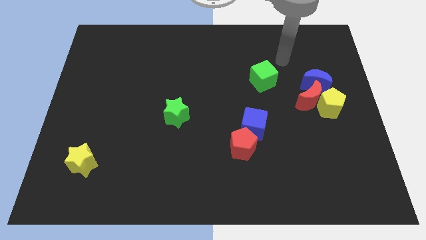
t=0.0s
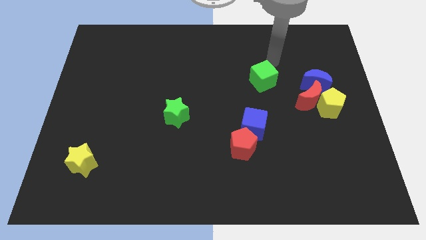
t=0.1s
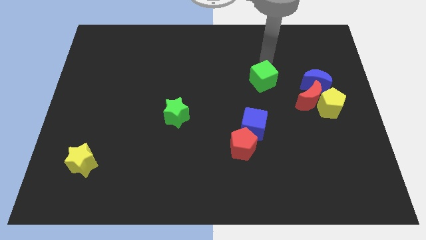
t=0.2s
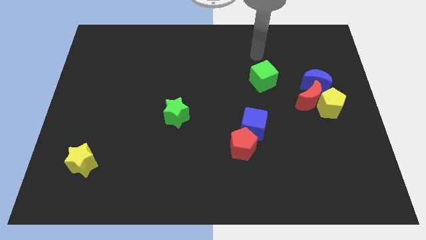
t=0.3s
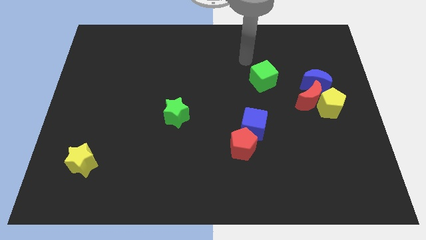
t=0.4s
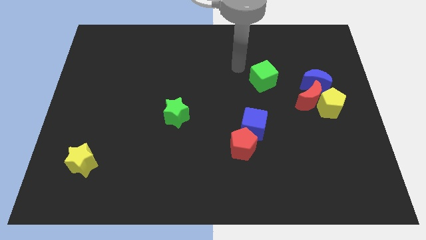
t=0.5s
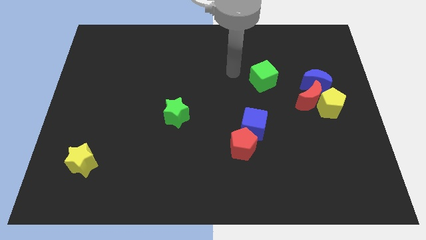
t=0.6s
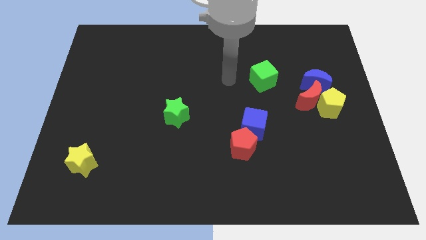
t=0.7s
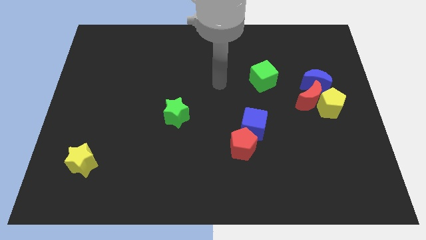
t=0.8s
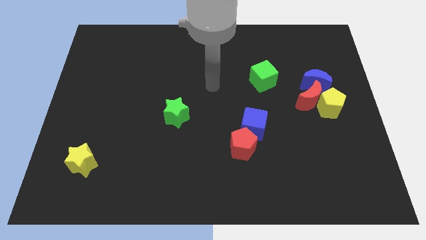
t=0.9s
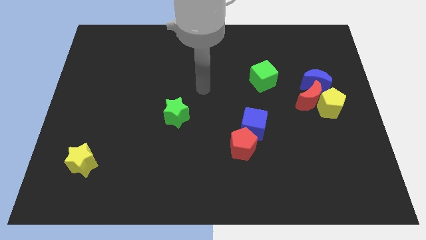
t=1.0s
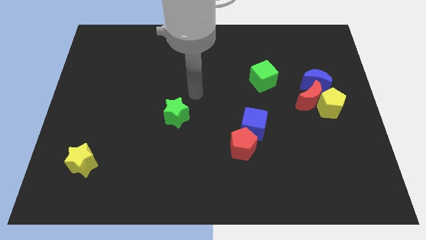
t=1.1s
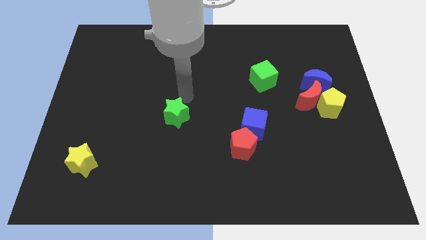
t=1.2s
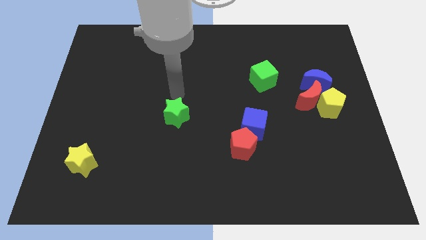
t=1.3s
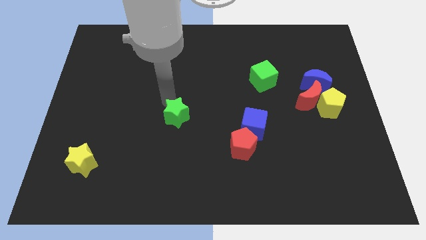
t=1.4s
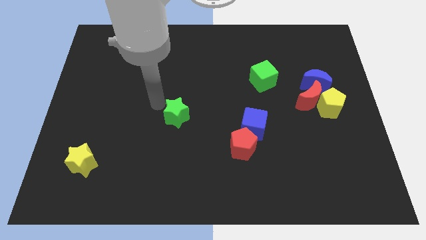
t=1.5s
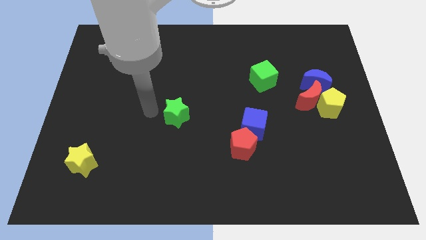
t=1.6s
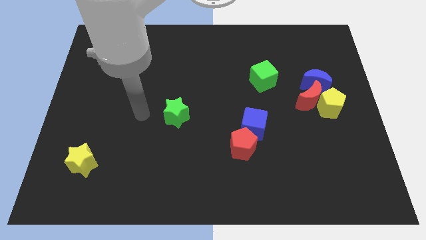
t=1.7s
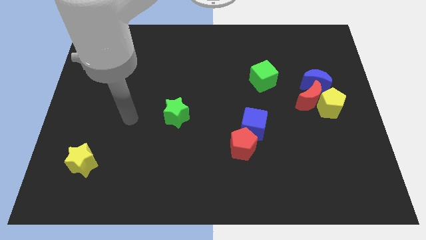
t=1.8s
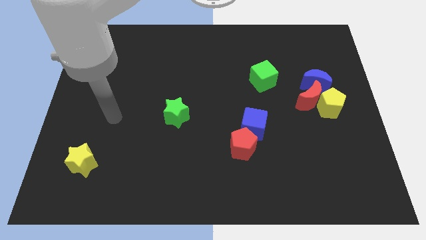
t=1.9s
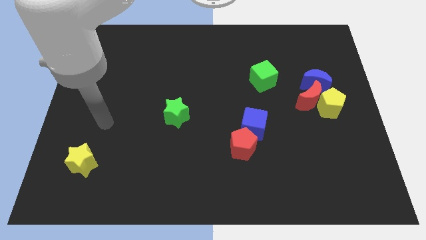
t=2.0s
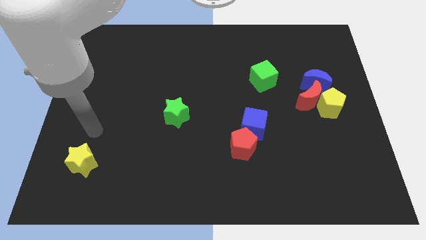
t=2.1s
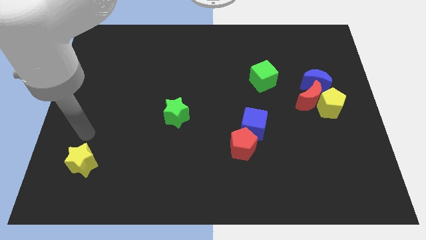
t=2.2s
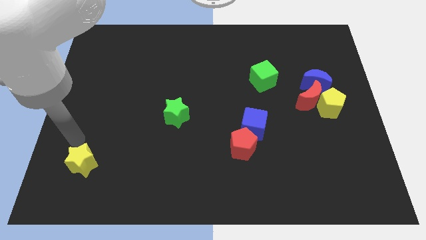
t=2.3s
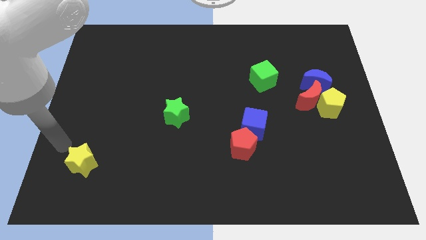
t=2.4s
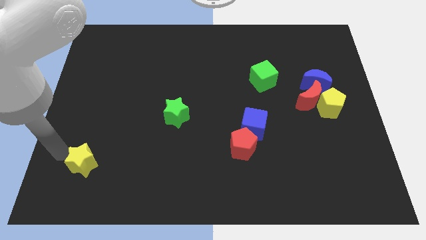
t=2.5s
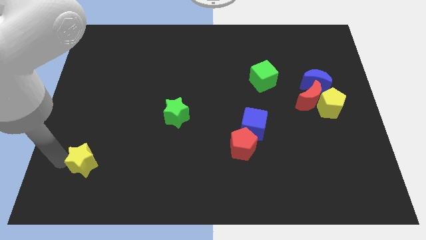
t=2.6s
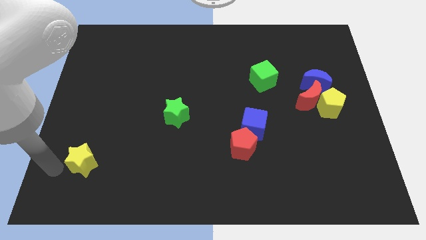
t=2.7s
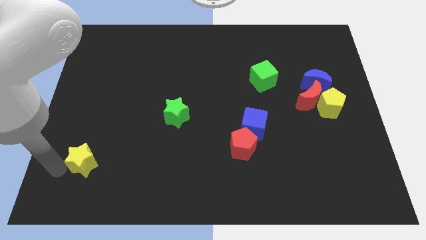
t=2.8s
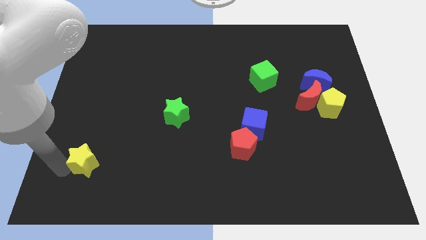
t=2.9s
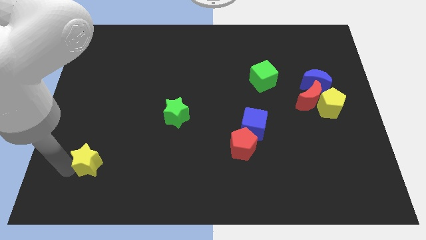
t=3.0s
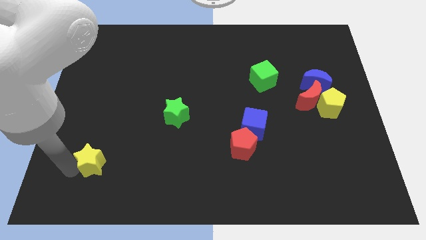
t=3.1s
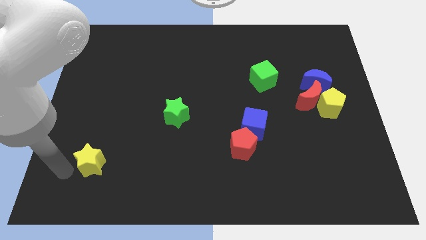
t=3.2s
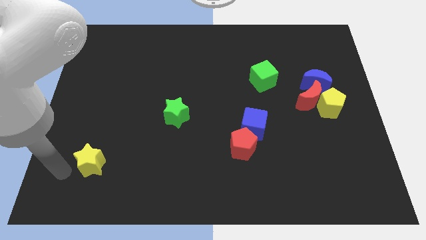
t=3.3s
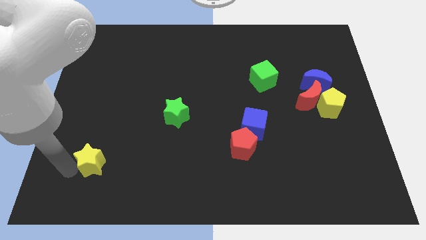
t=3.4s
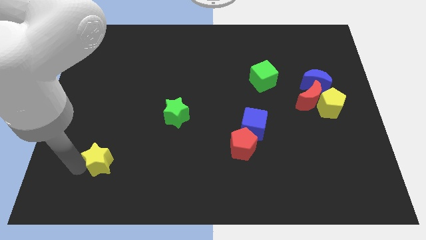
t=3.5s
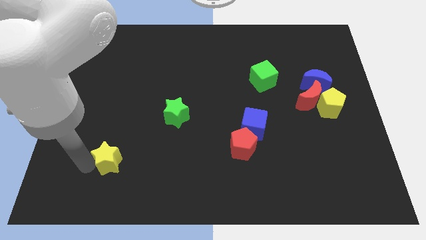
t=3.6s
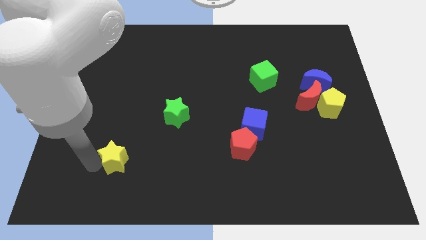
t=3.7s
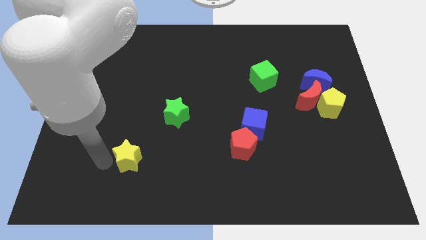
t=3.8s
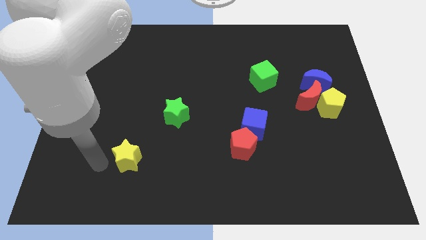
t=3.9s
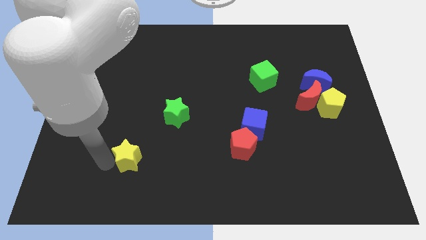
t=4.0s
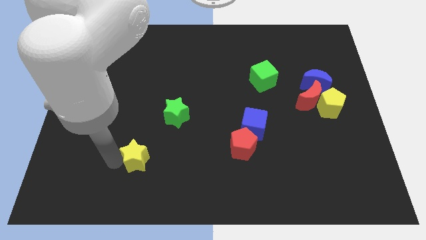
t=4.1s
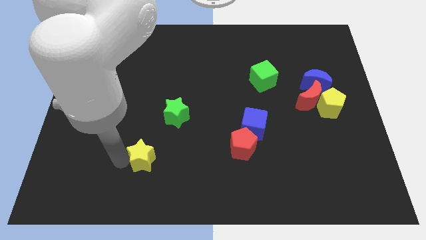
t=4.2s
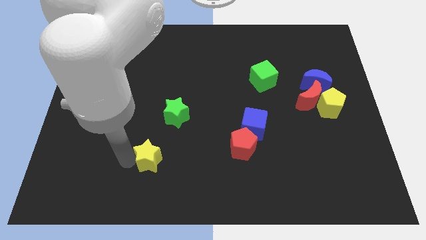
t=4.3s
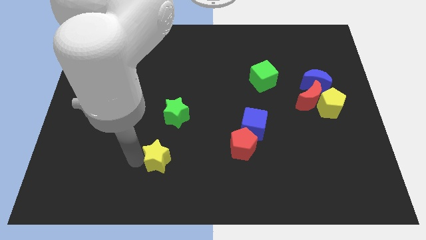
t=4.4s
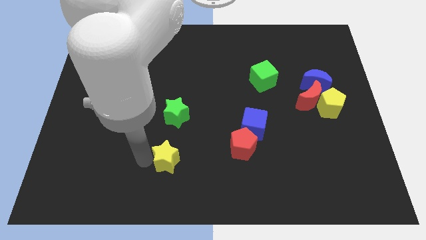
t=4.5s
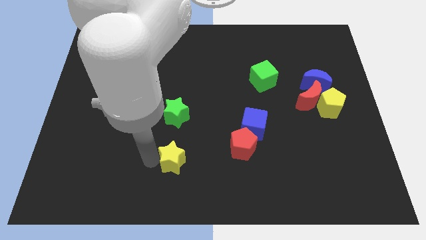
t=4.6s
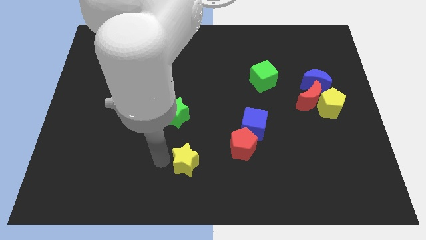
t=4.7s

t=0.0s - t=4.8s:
slide the yellow star right

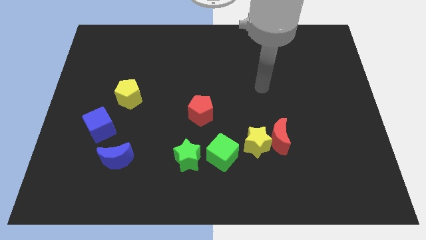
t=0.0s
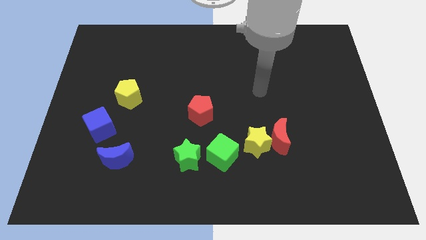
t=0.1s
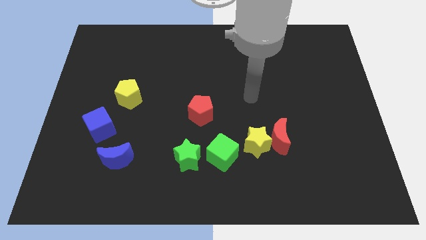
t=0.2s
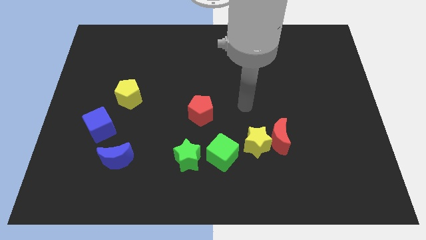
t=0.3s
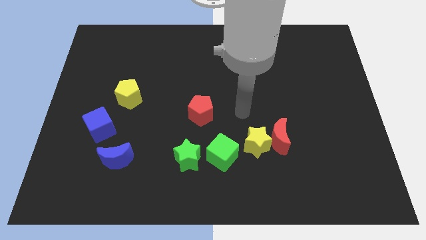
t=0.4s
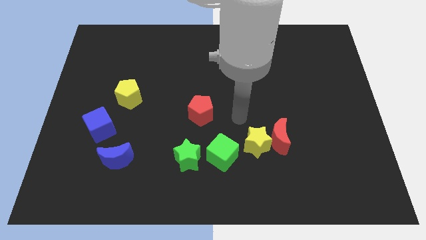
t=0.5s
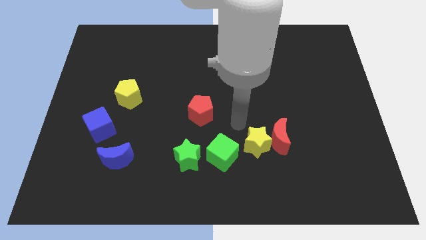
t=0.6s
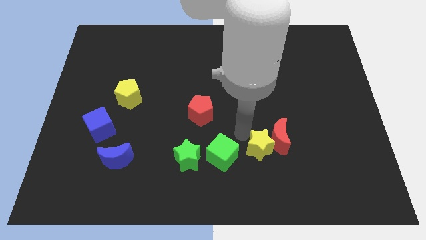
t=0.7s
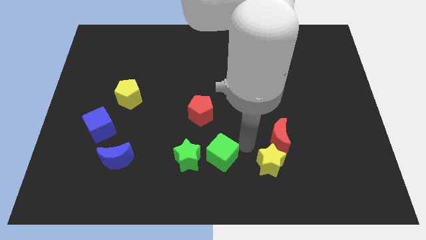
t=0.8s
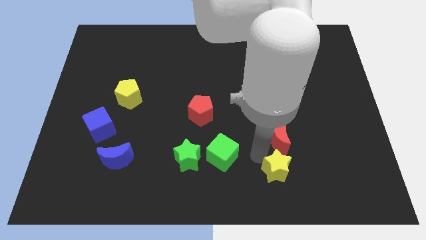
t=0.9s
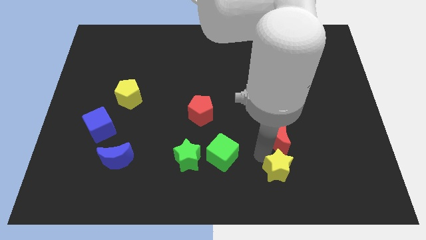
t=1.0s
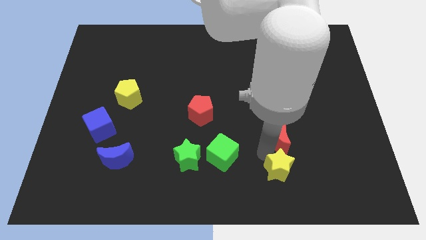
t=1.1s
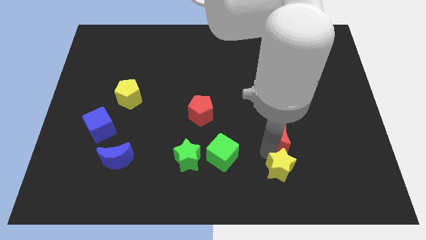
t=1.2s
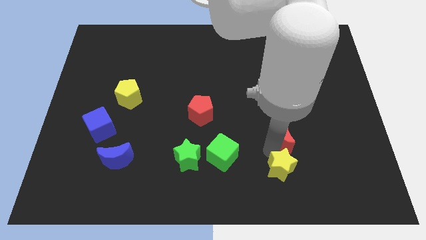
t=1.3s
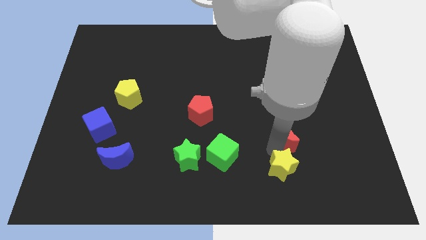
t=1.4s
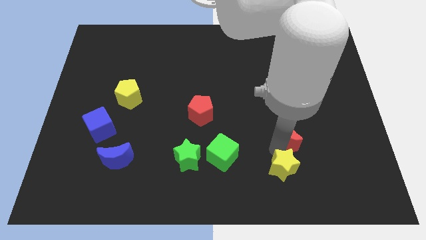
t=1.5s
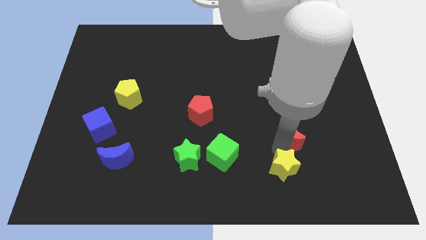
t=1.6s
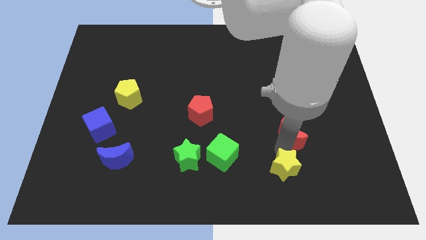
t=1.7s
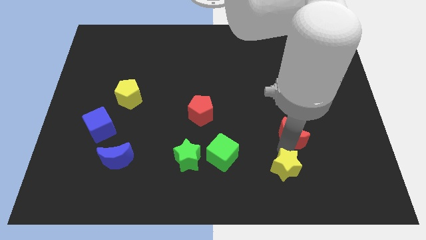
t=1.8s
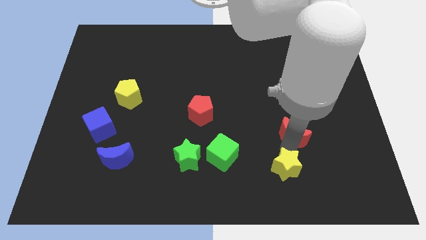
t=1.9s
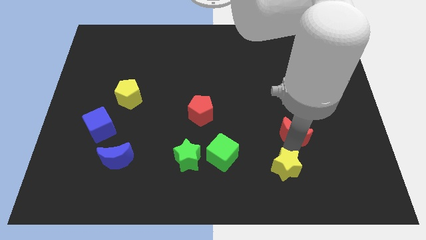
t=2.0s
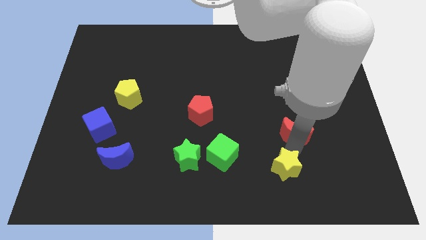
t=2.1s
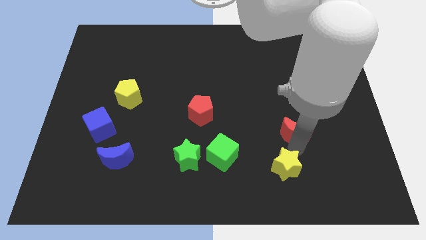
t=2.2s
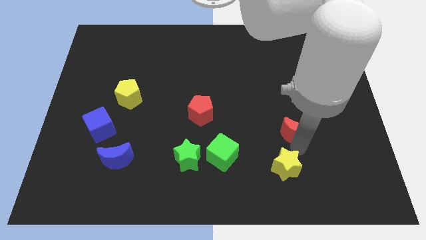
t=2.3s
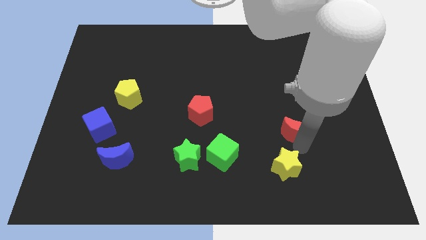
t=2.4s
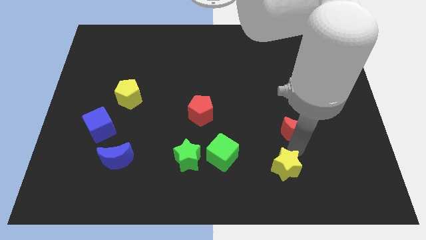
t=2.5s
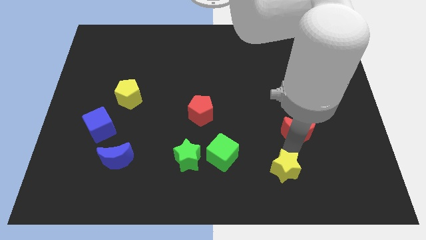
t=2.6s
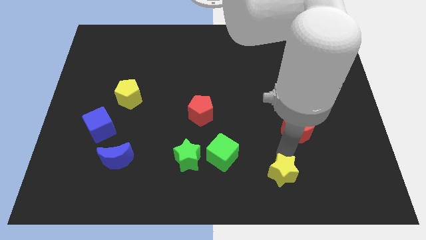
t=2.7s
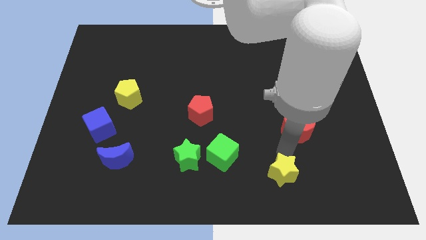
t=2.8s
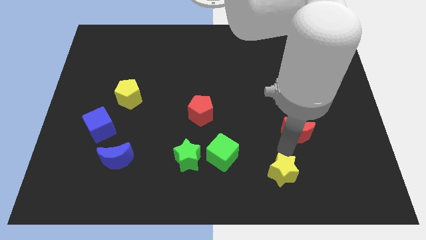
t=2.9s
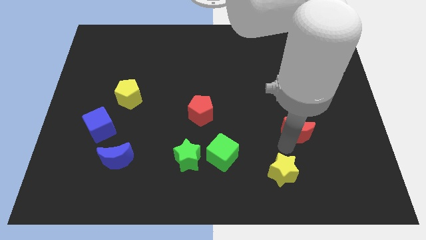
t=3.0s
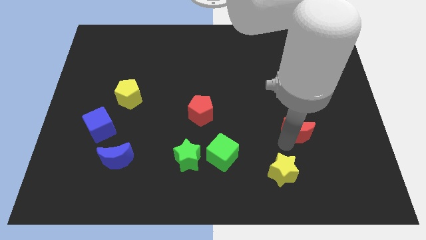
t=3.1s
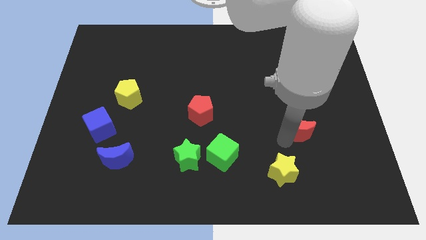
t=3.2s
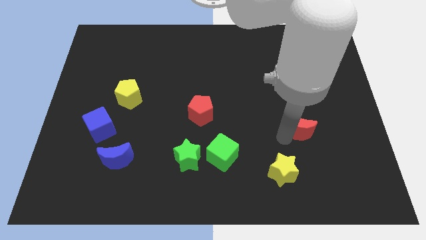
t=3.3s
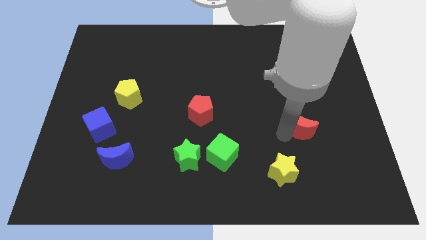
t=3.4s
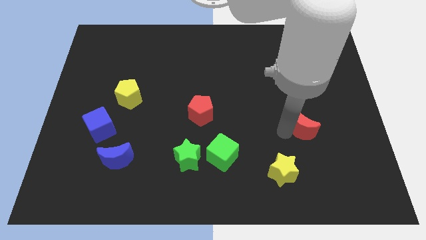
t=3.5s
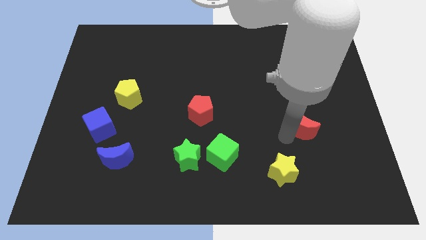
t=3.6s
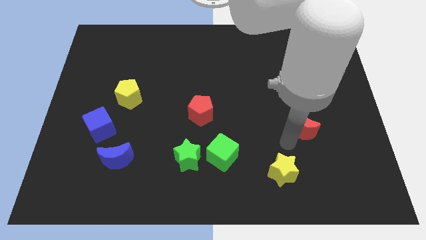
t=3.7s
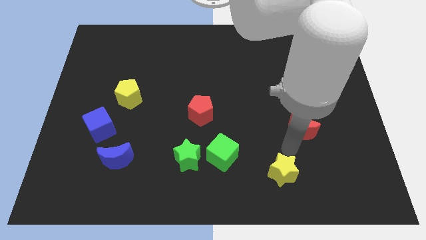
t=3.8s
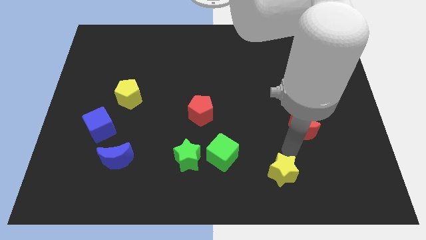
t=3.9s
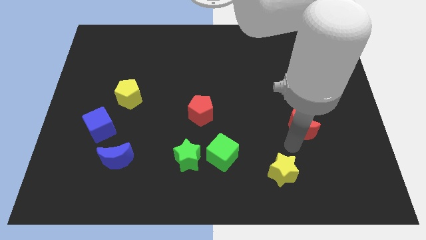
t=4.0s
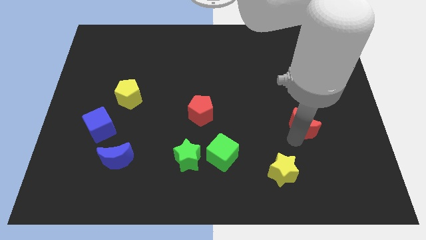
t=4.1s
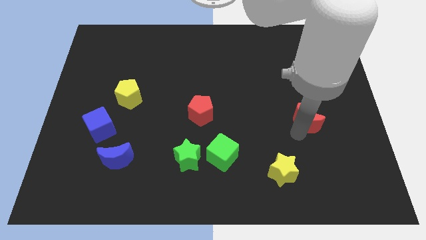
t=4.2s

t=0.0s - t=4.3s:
slide the red moon slightly up and to the right
